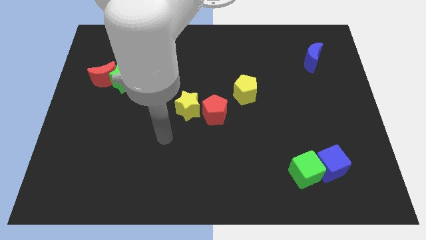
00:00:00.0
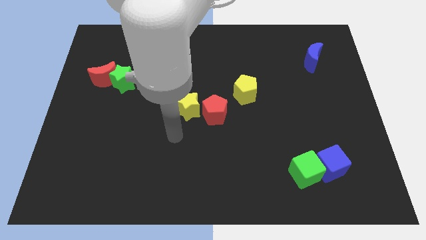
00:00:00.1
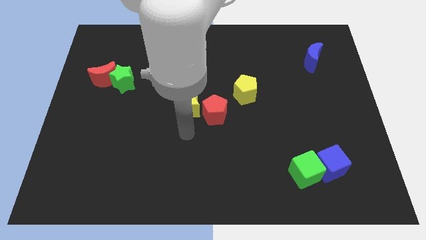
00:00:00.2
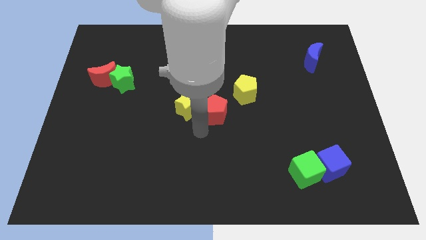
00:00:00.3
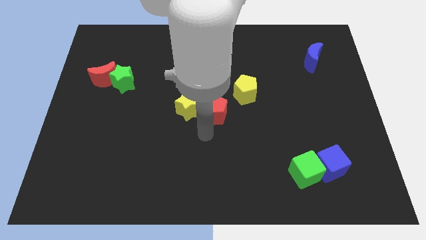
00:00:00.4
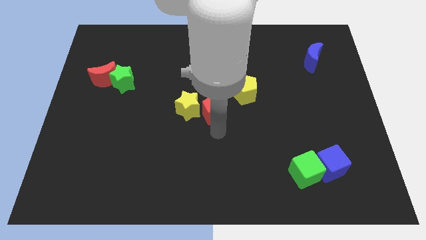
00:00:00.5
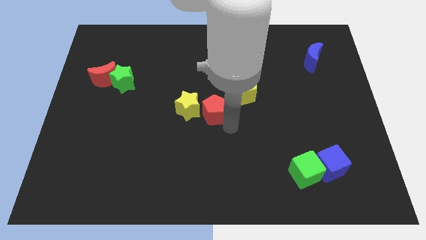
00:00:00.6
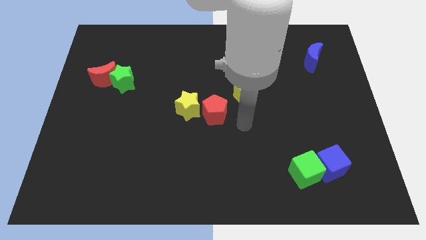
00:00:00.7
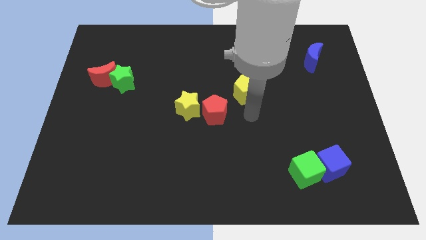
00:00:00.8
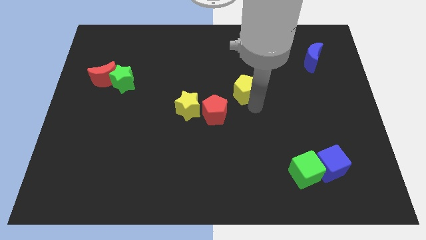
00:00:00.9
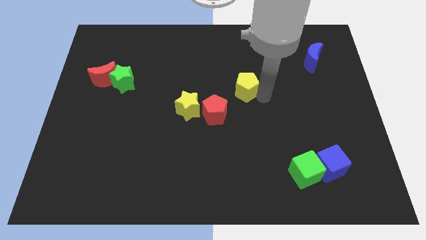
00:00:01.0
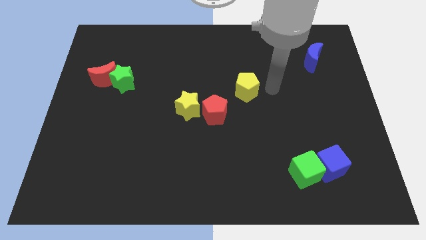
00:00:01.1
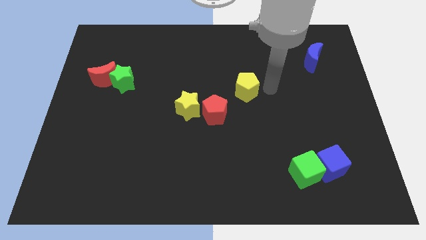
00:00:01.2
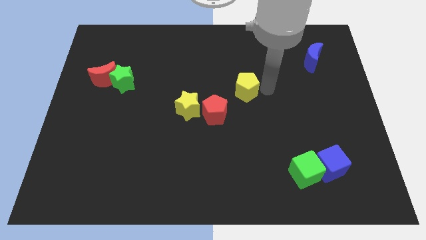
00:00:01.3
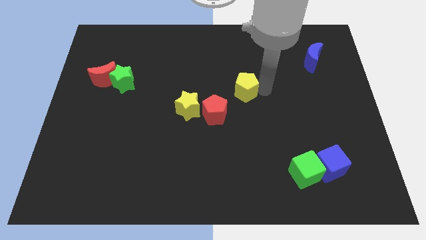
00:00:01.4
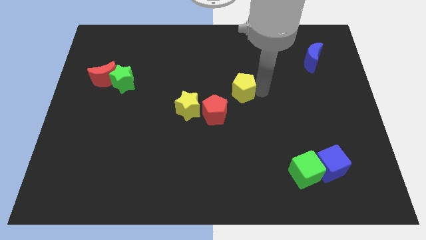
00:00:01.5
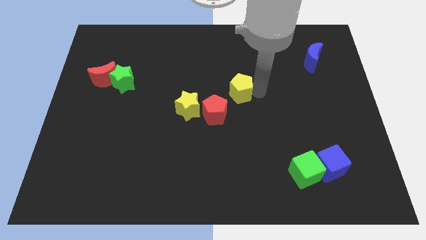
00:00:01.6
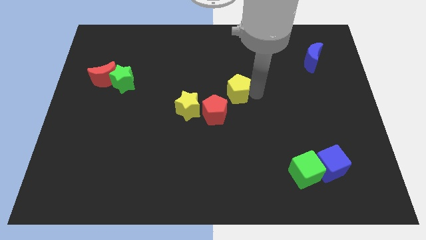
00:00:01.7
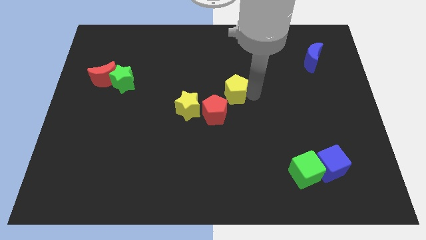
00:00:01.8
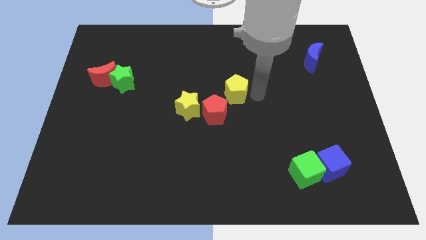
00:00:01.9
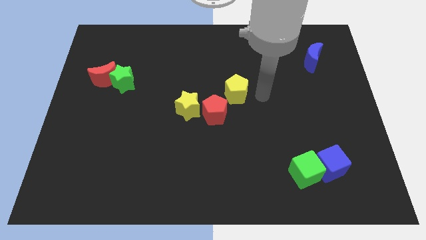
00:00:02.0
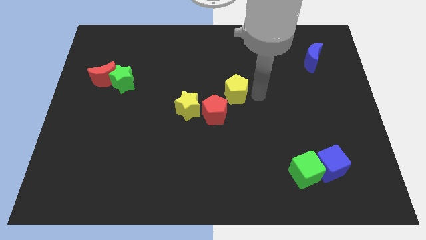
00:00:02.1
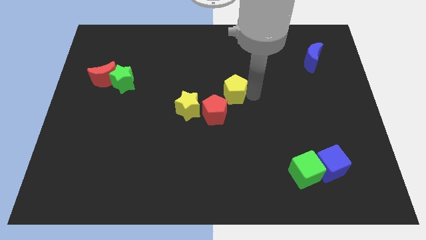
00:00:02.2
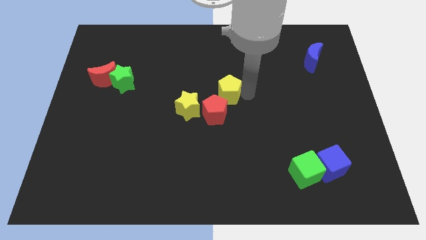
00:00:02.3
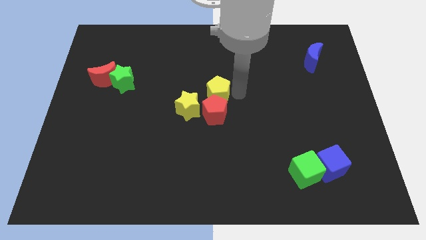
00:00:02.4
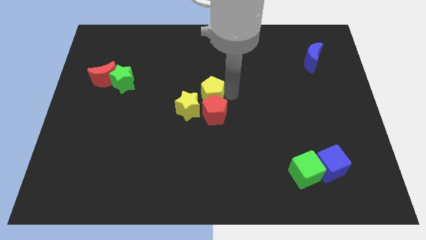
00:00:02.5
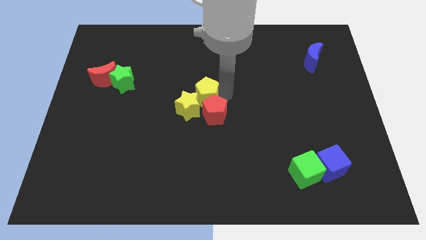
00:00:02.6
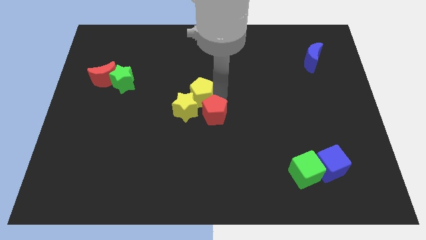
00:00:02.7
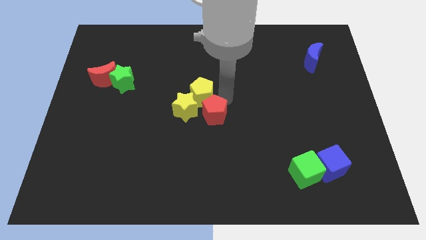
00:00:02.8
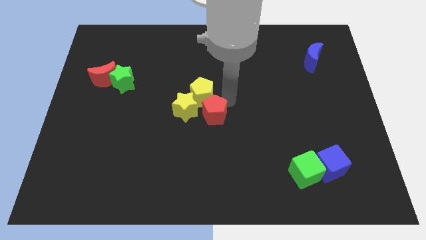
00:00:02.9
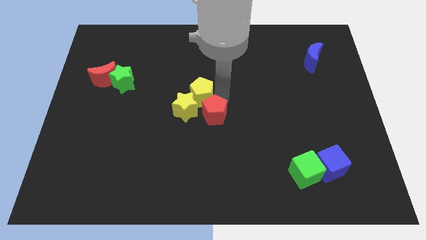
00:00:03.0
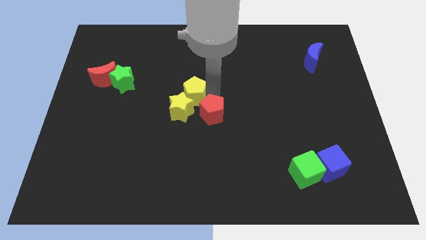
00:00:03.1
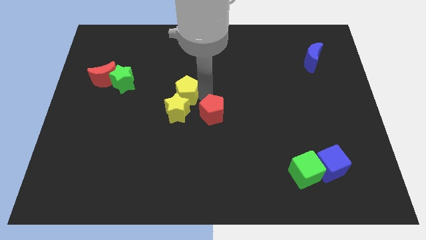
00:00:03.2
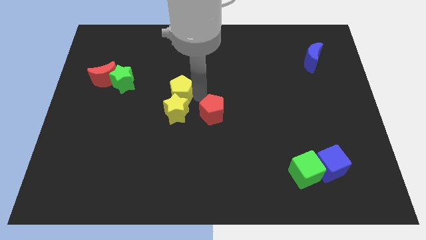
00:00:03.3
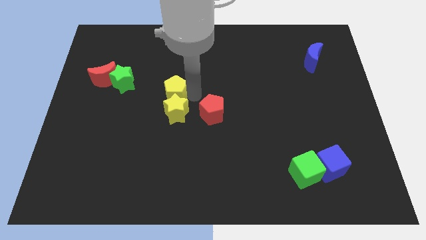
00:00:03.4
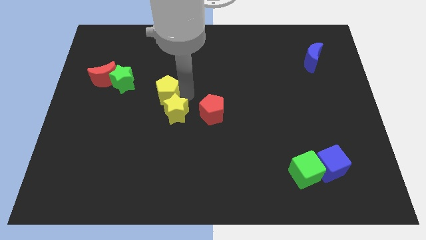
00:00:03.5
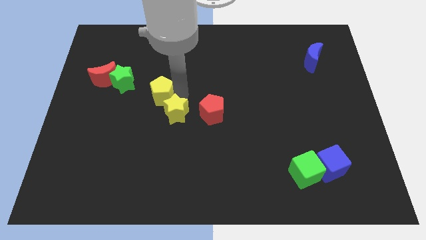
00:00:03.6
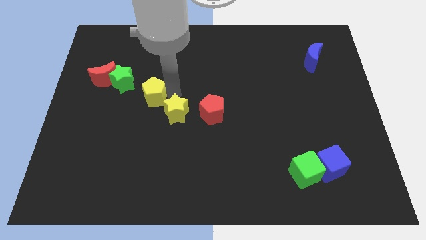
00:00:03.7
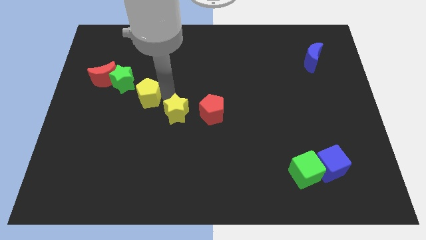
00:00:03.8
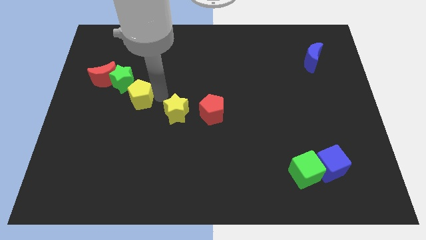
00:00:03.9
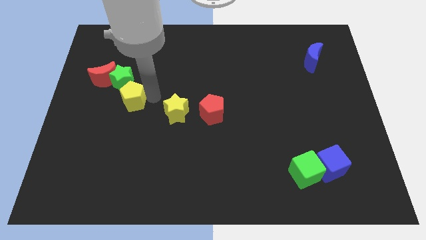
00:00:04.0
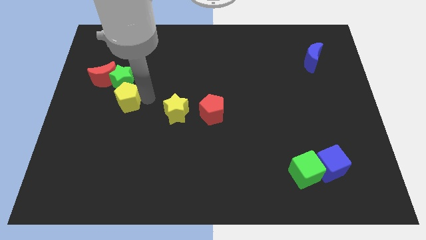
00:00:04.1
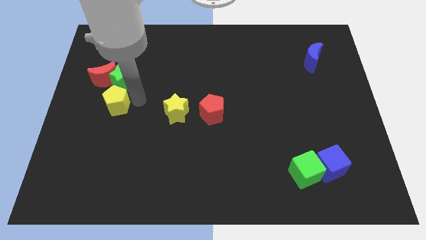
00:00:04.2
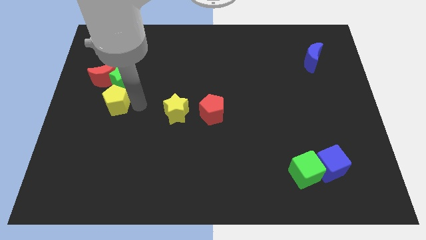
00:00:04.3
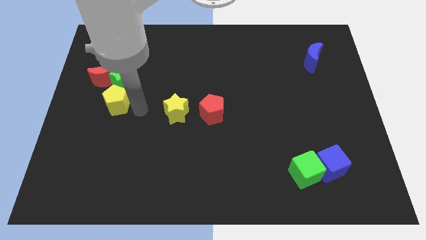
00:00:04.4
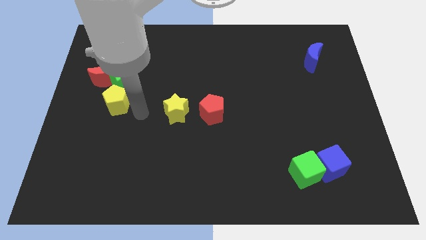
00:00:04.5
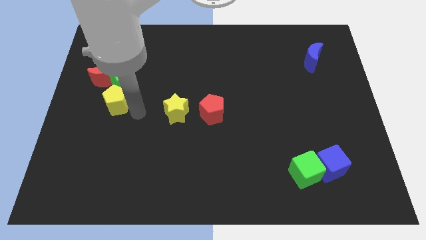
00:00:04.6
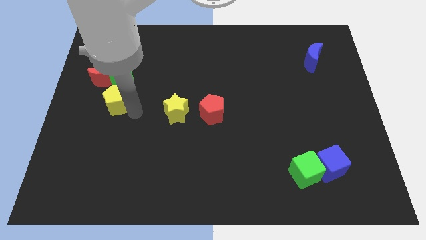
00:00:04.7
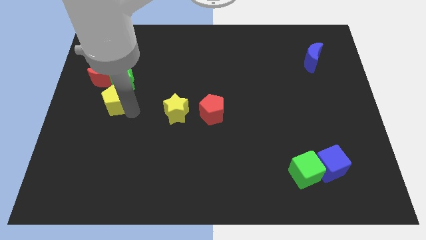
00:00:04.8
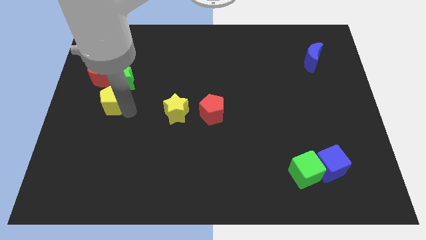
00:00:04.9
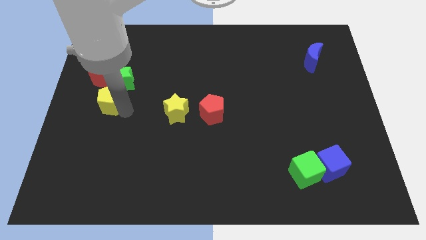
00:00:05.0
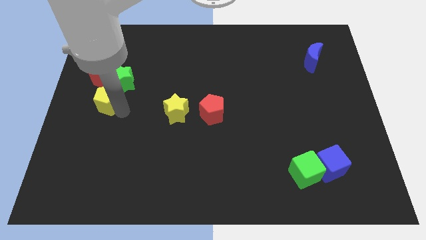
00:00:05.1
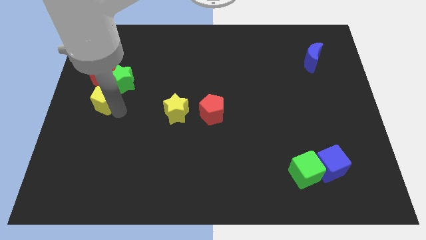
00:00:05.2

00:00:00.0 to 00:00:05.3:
put the yellow pentagon to the left side of the board

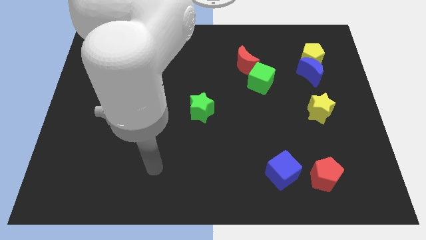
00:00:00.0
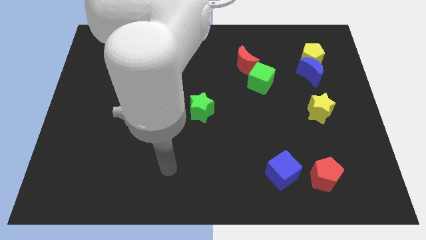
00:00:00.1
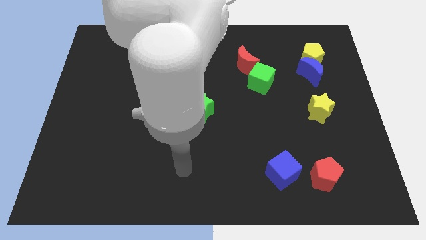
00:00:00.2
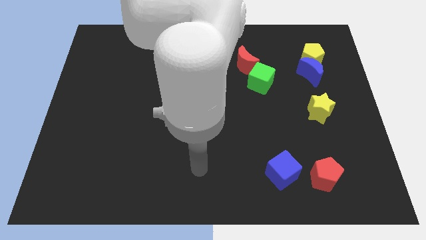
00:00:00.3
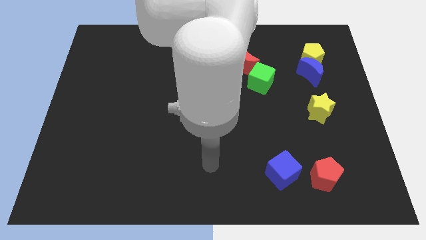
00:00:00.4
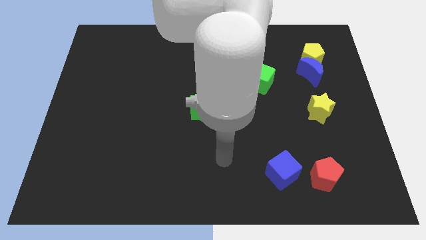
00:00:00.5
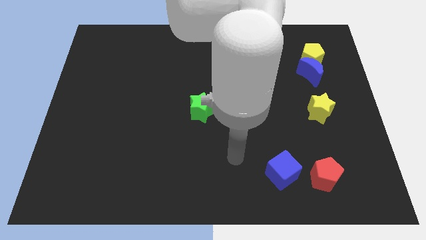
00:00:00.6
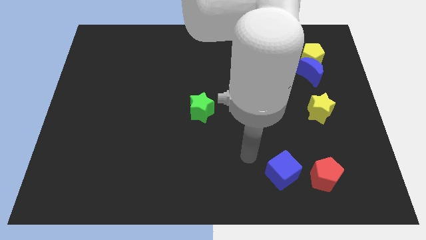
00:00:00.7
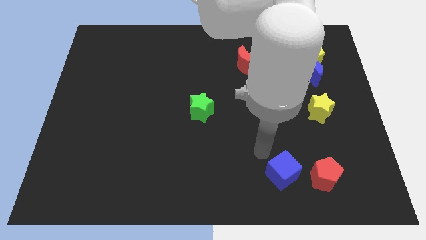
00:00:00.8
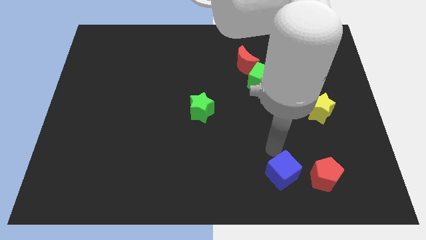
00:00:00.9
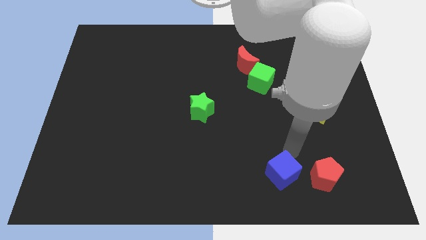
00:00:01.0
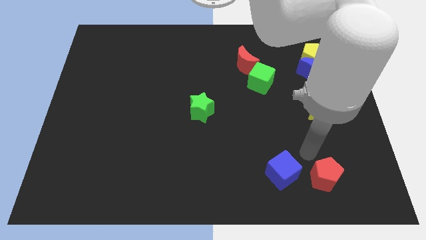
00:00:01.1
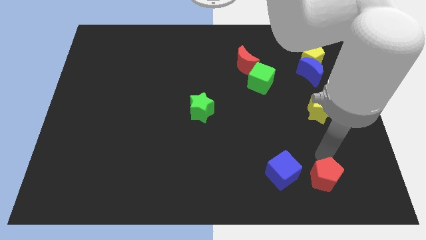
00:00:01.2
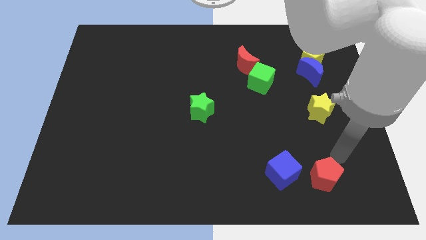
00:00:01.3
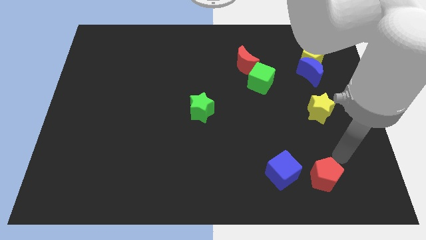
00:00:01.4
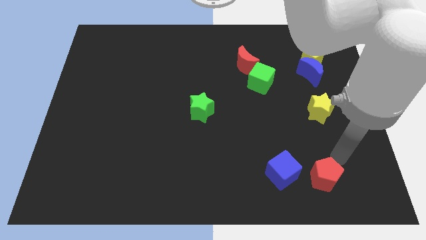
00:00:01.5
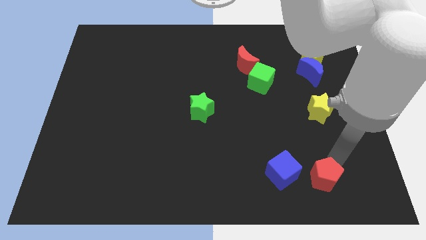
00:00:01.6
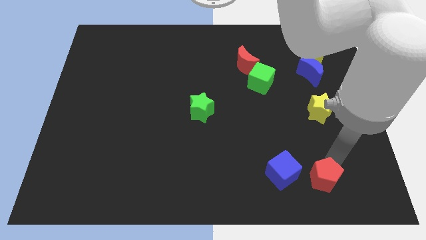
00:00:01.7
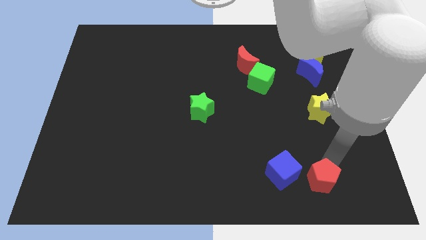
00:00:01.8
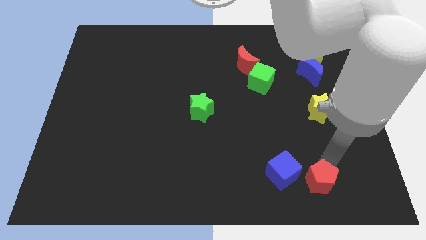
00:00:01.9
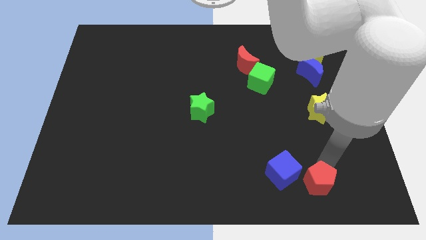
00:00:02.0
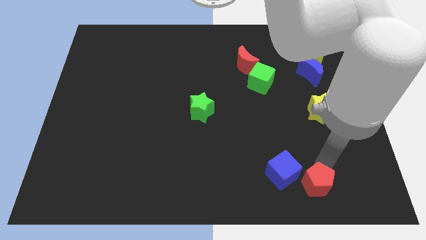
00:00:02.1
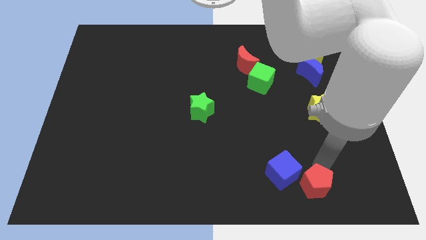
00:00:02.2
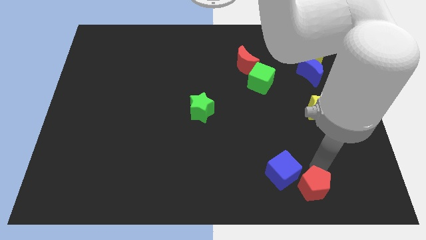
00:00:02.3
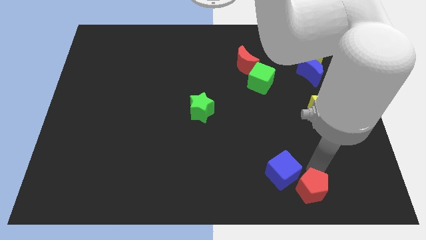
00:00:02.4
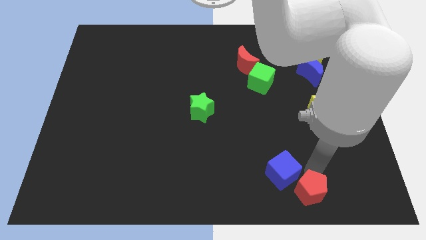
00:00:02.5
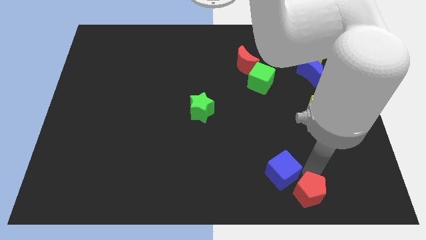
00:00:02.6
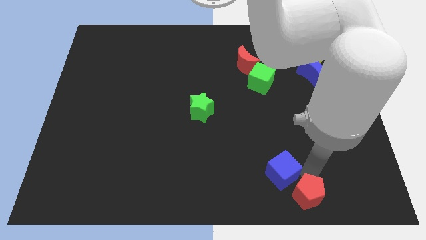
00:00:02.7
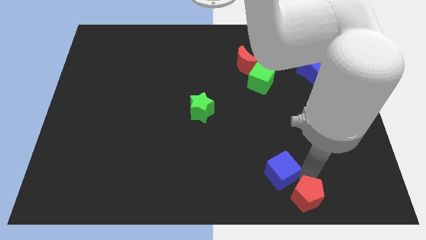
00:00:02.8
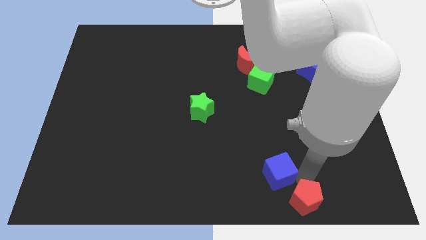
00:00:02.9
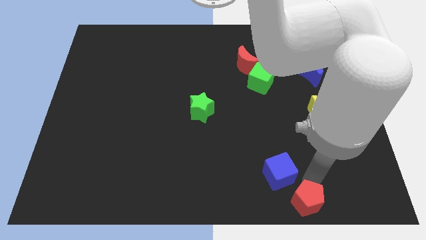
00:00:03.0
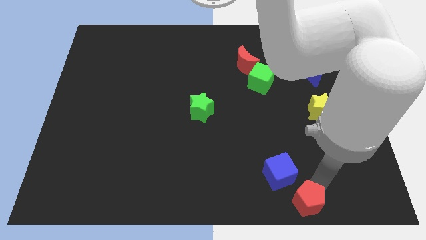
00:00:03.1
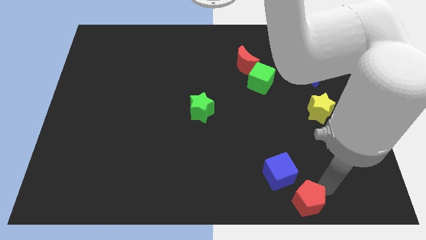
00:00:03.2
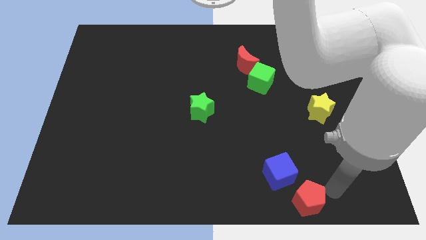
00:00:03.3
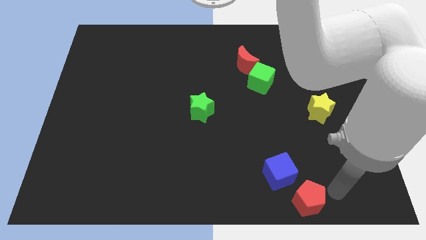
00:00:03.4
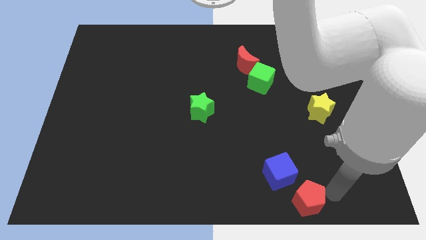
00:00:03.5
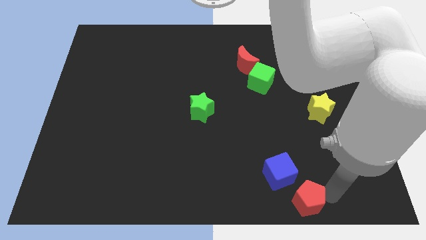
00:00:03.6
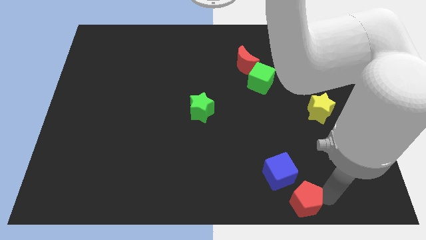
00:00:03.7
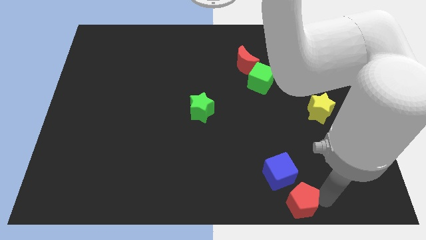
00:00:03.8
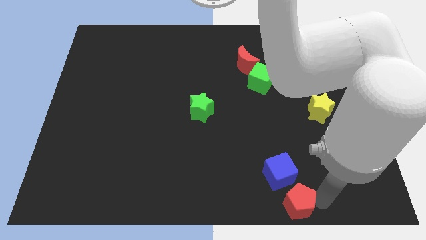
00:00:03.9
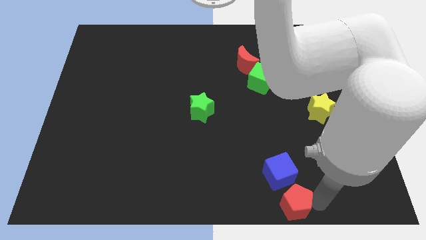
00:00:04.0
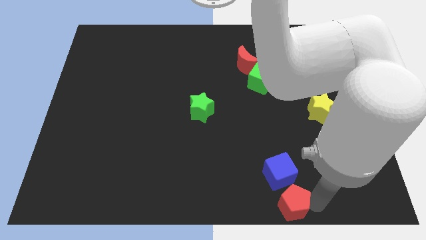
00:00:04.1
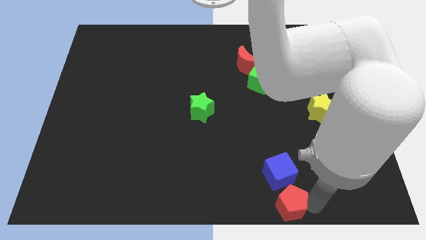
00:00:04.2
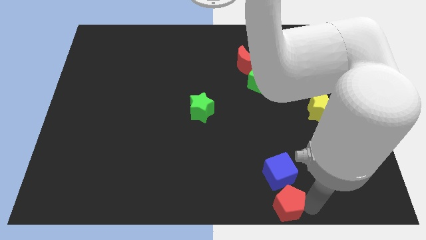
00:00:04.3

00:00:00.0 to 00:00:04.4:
slide the red pentagon to the bottom side
